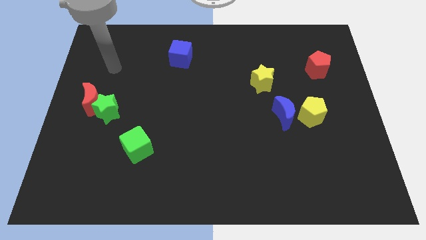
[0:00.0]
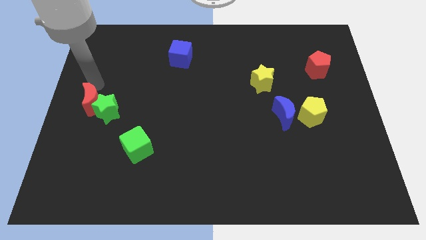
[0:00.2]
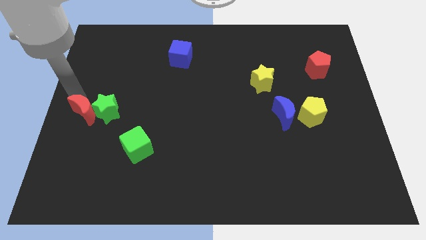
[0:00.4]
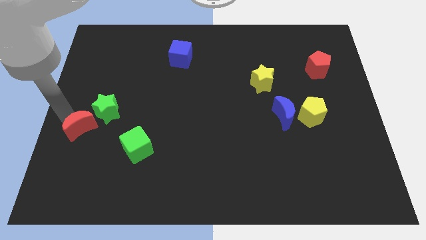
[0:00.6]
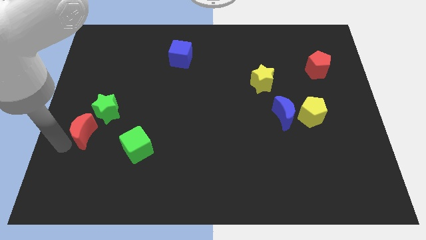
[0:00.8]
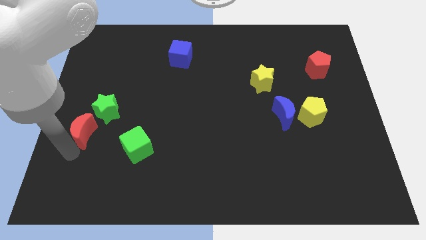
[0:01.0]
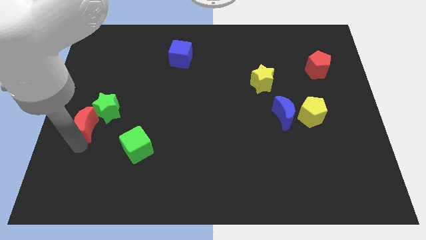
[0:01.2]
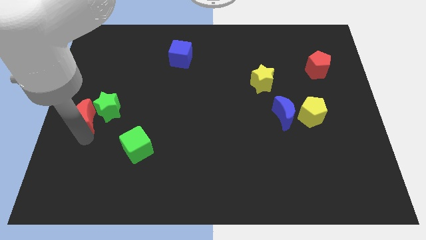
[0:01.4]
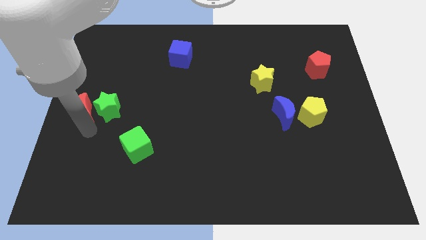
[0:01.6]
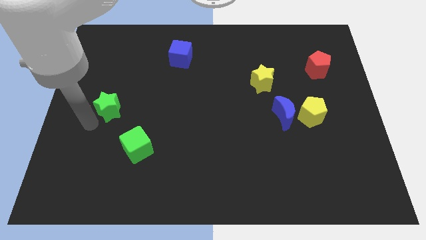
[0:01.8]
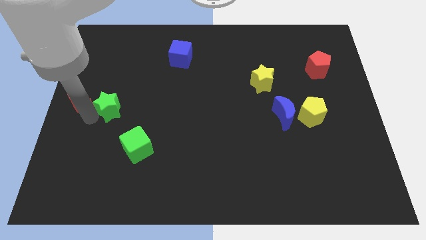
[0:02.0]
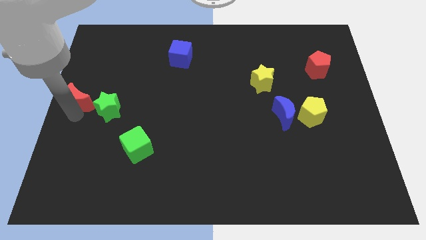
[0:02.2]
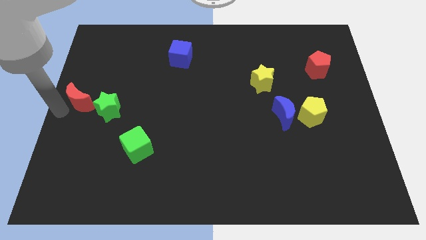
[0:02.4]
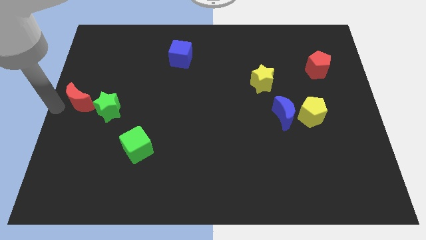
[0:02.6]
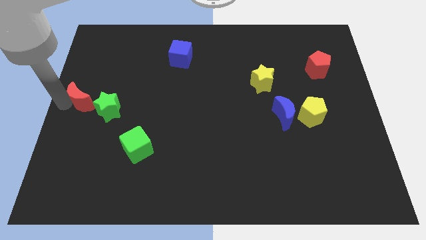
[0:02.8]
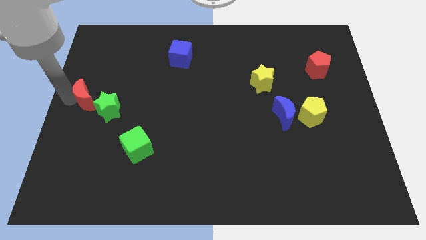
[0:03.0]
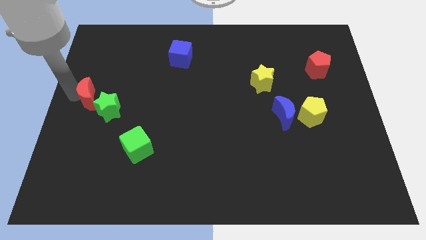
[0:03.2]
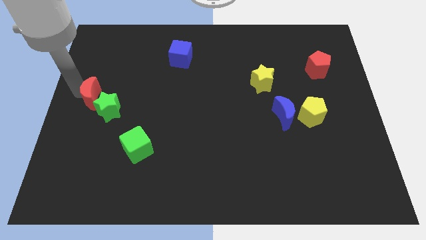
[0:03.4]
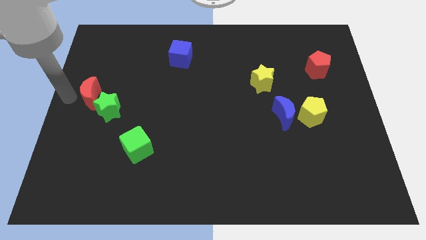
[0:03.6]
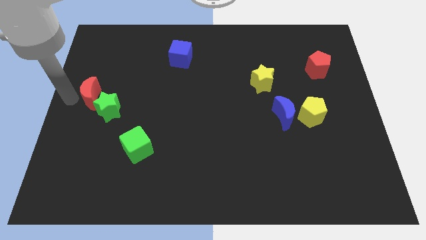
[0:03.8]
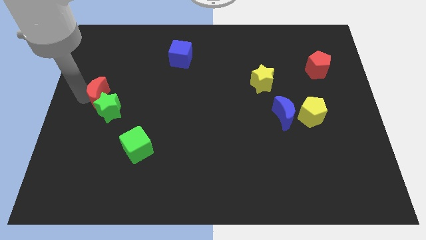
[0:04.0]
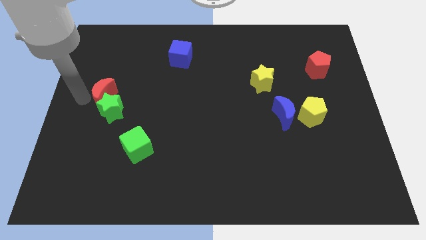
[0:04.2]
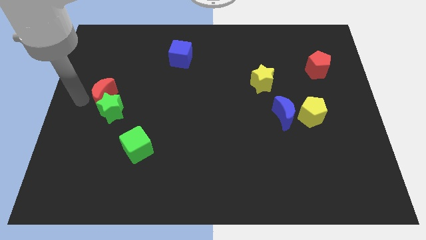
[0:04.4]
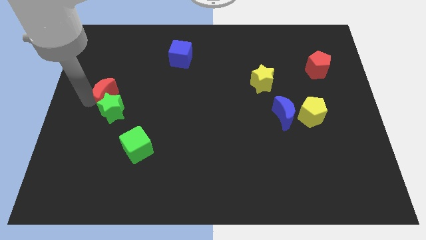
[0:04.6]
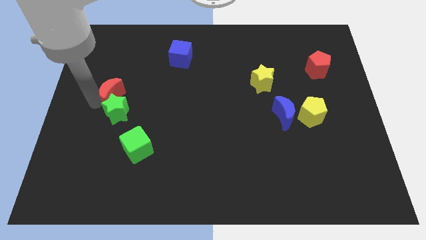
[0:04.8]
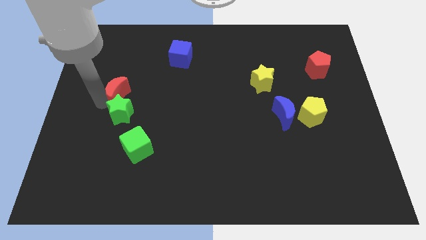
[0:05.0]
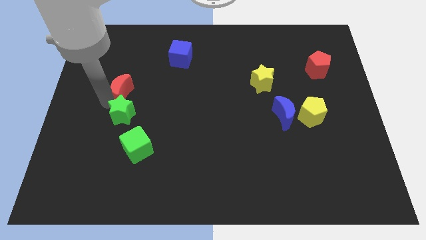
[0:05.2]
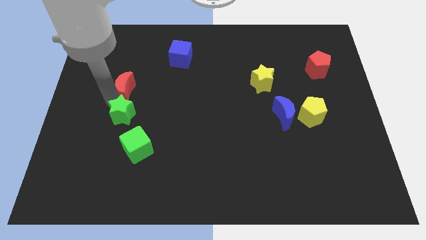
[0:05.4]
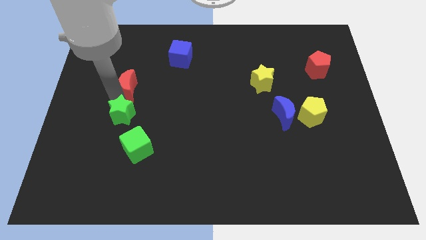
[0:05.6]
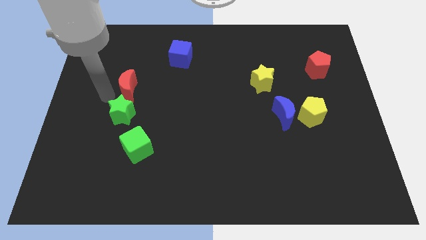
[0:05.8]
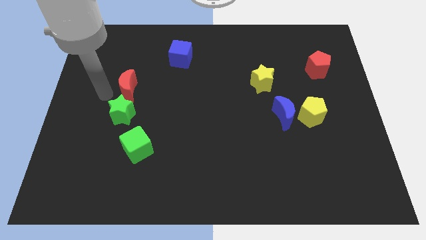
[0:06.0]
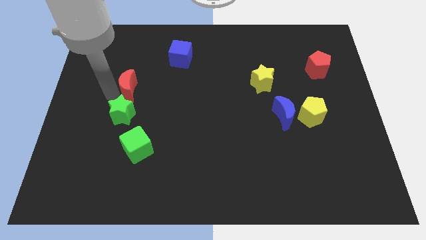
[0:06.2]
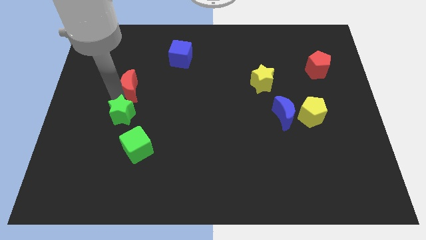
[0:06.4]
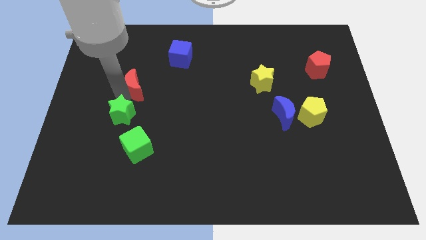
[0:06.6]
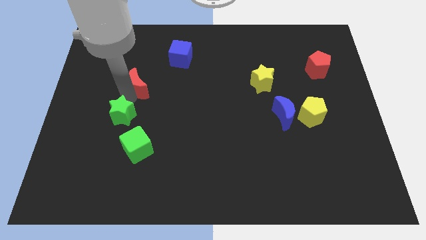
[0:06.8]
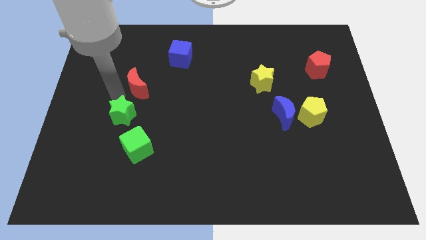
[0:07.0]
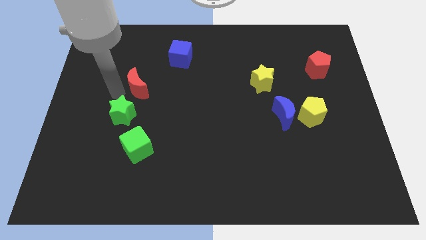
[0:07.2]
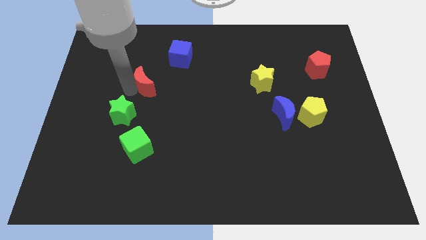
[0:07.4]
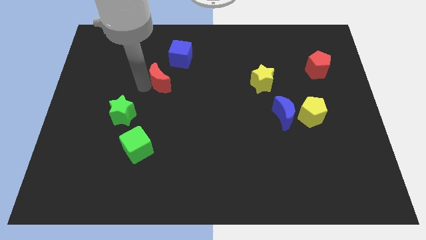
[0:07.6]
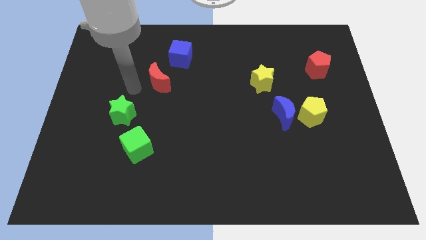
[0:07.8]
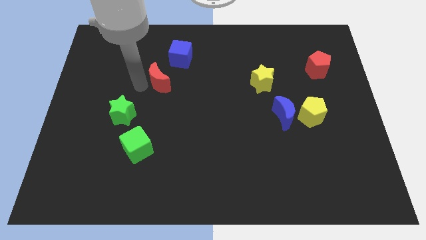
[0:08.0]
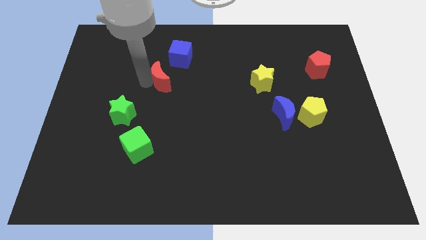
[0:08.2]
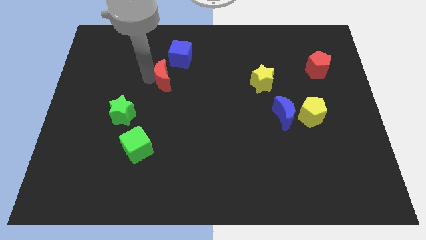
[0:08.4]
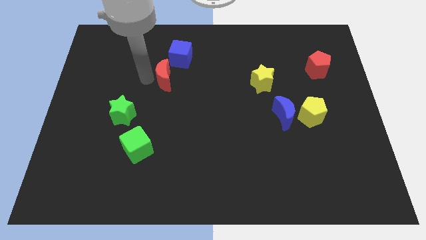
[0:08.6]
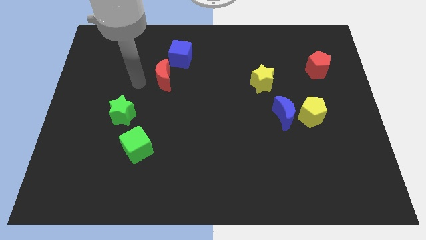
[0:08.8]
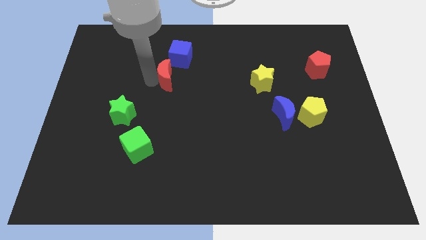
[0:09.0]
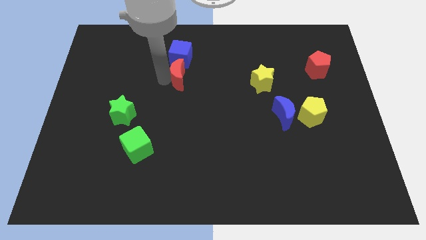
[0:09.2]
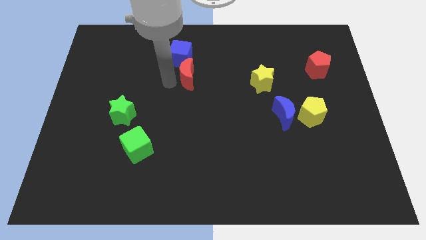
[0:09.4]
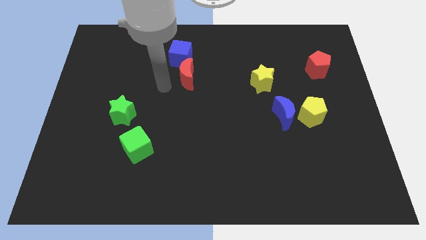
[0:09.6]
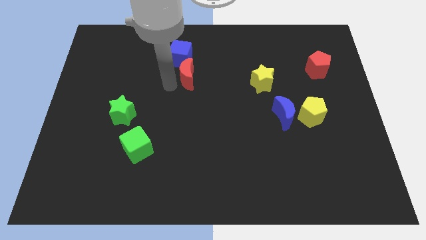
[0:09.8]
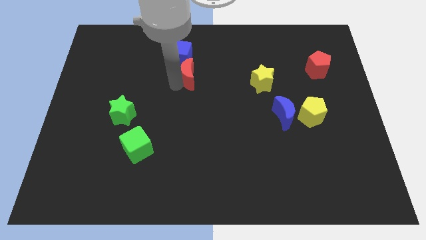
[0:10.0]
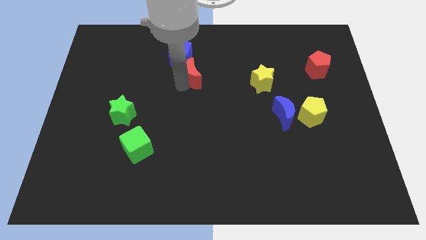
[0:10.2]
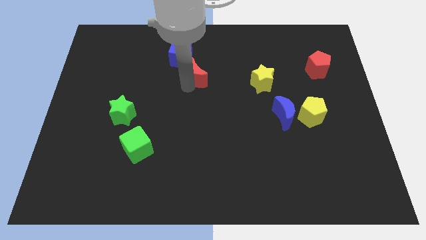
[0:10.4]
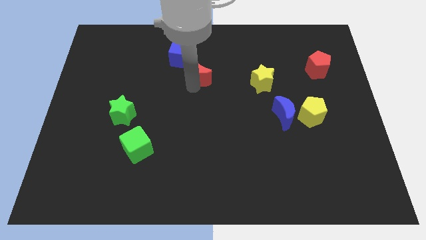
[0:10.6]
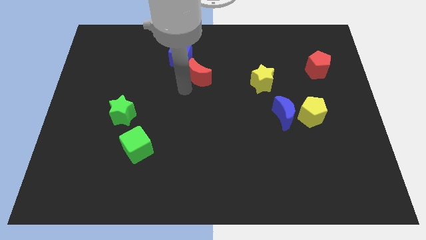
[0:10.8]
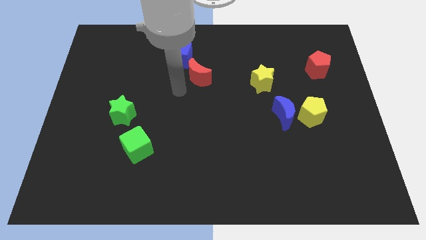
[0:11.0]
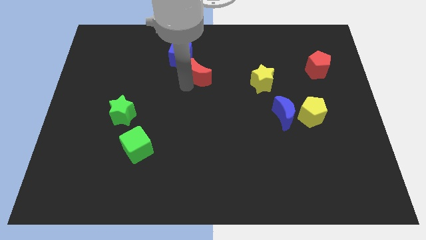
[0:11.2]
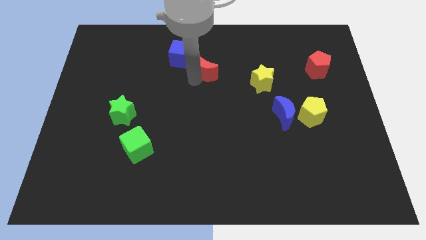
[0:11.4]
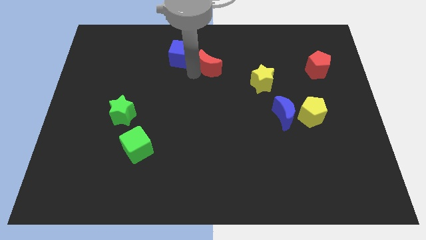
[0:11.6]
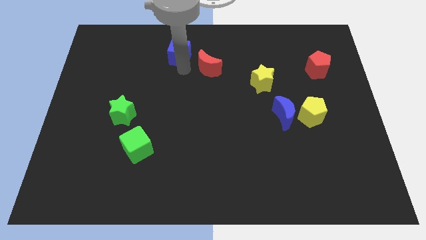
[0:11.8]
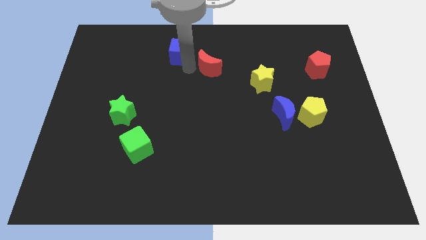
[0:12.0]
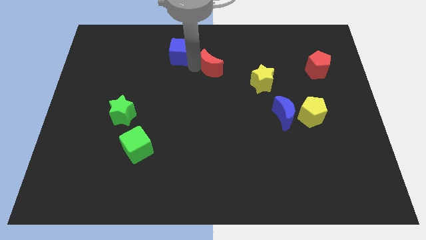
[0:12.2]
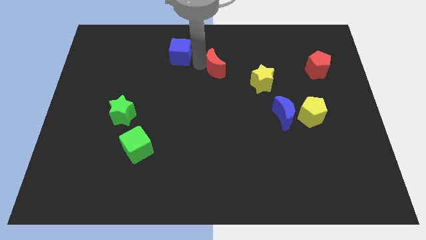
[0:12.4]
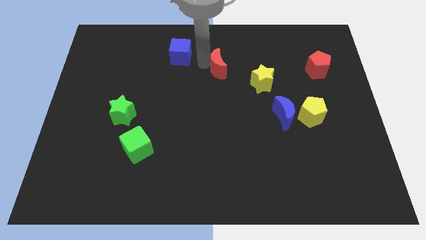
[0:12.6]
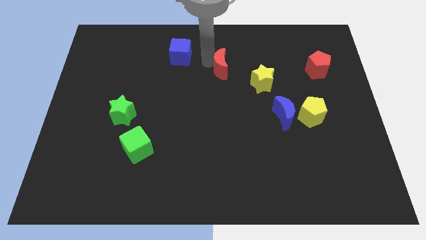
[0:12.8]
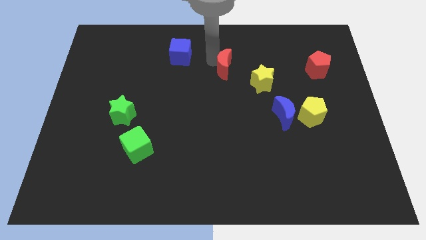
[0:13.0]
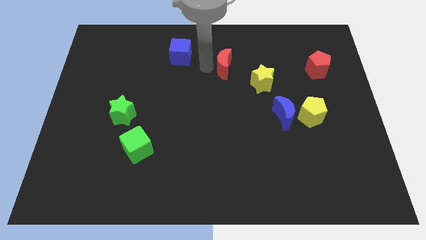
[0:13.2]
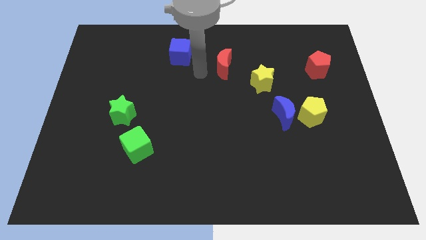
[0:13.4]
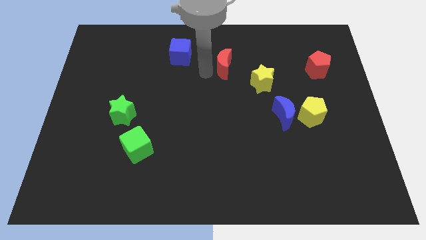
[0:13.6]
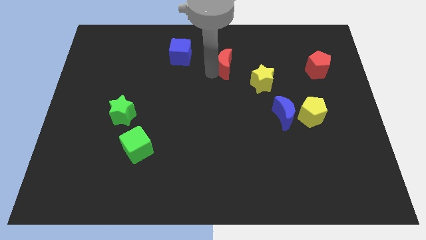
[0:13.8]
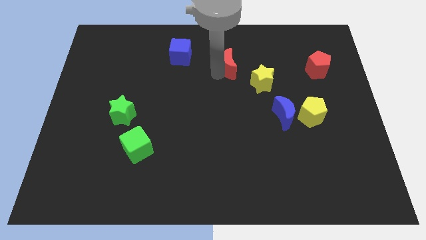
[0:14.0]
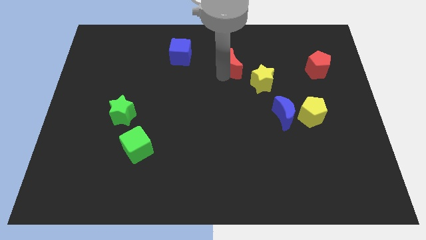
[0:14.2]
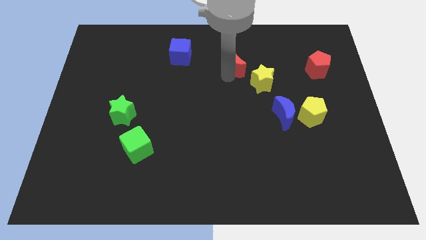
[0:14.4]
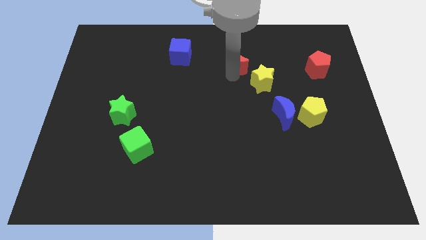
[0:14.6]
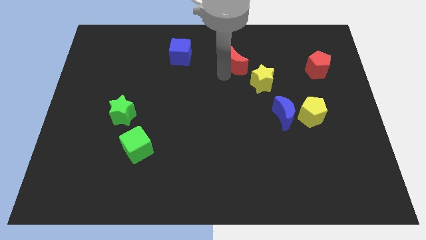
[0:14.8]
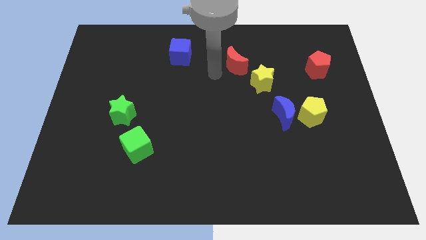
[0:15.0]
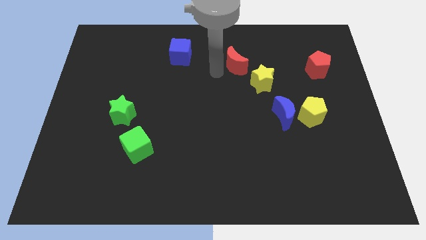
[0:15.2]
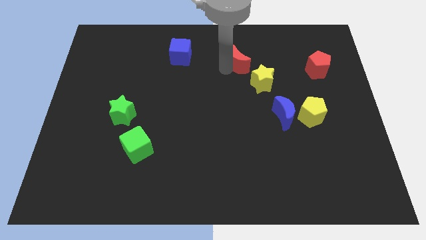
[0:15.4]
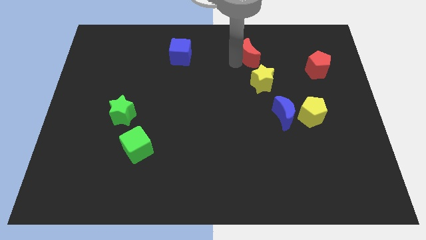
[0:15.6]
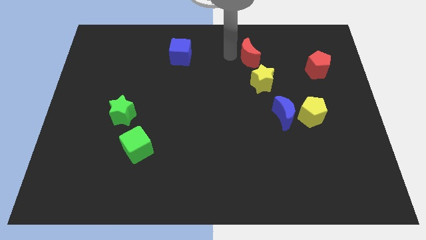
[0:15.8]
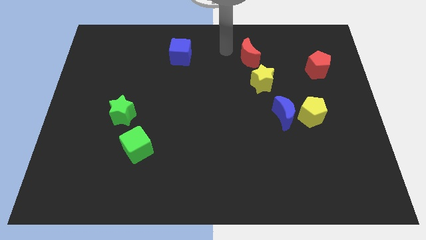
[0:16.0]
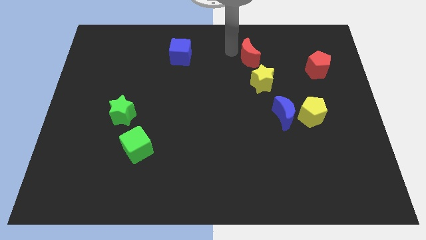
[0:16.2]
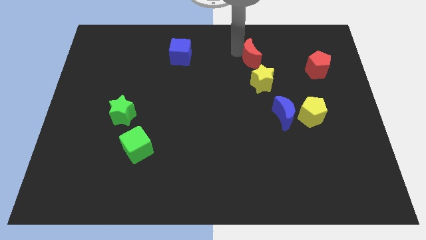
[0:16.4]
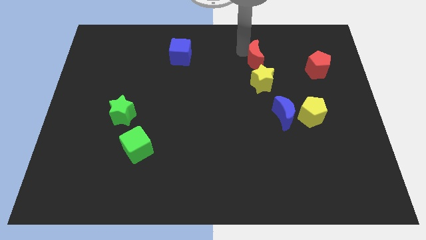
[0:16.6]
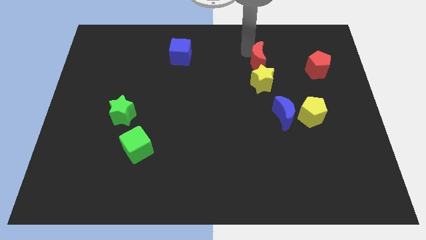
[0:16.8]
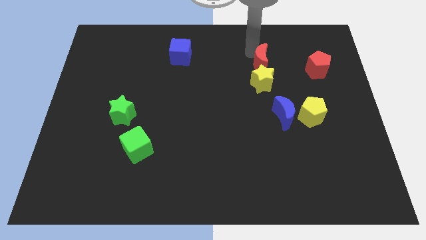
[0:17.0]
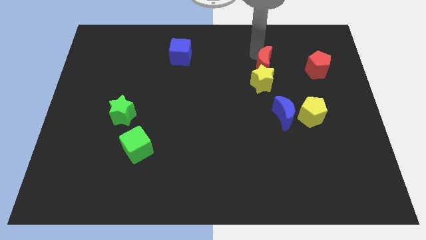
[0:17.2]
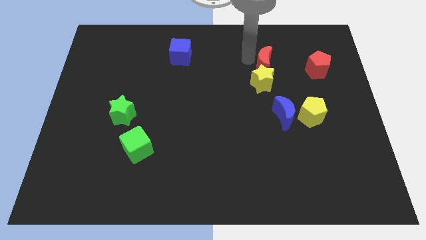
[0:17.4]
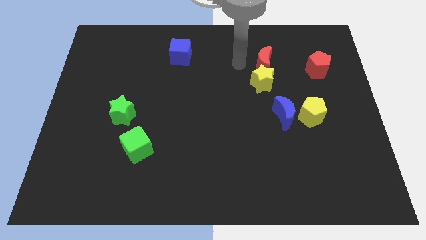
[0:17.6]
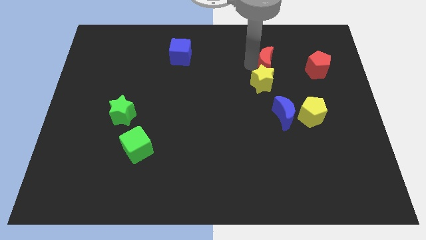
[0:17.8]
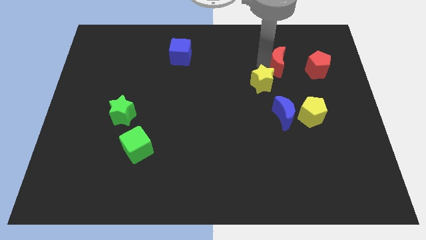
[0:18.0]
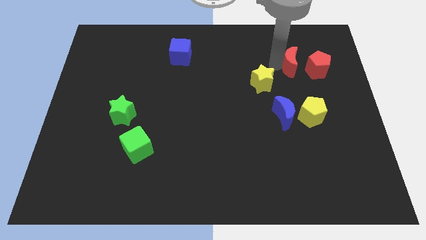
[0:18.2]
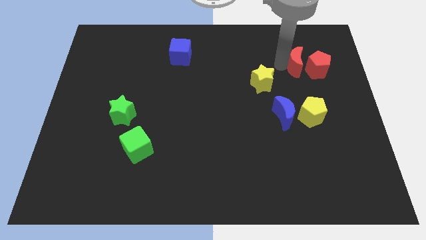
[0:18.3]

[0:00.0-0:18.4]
slide the red moon towards the red pentagon
